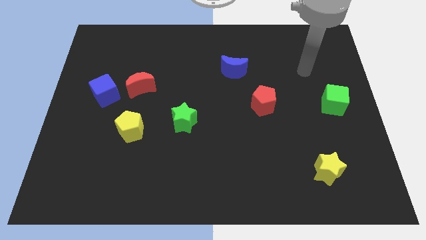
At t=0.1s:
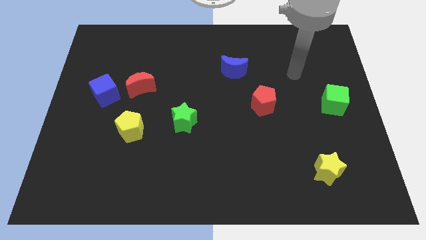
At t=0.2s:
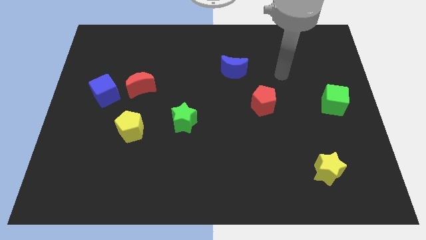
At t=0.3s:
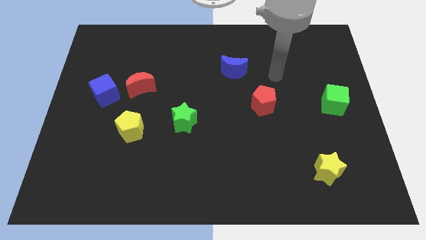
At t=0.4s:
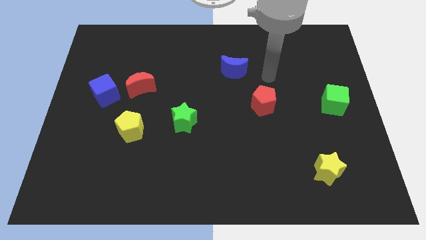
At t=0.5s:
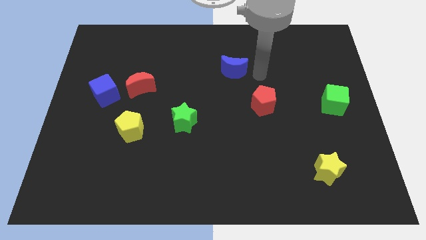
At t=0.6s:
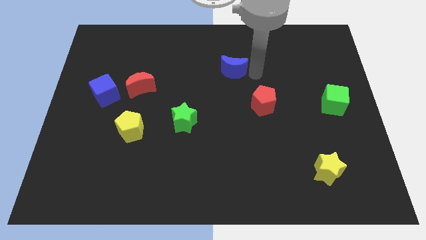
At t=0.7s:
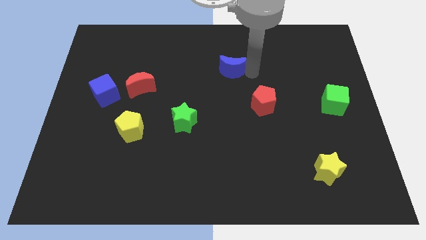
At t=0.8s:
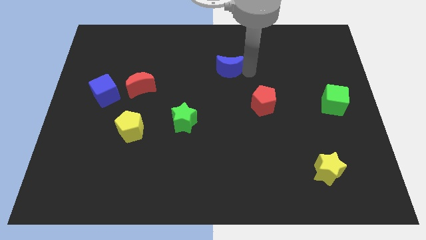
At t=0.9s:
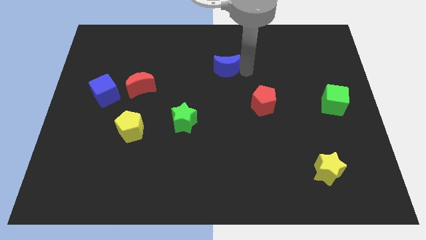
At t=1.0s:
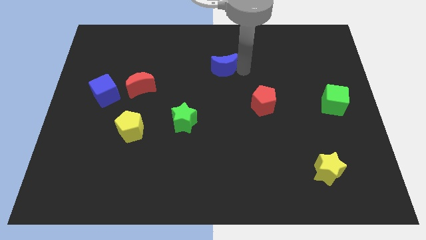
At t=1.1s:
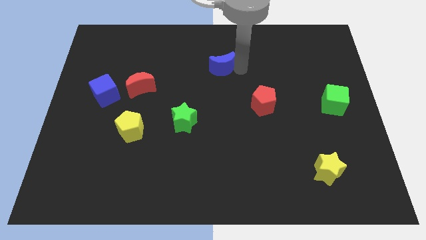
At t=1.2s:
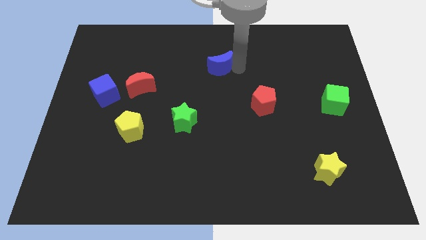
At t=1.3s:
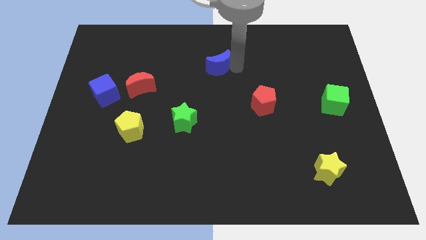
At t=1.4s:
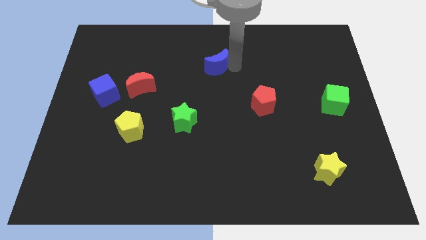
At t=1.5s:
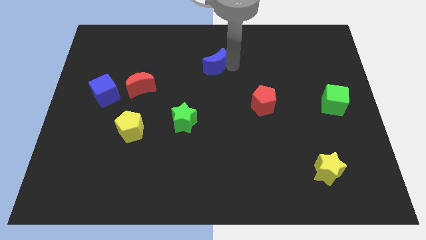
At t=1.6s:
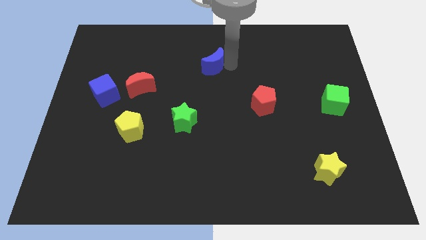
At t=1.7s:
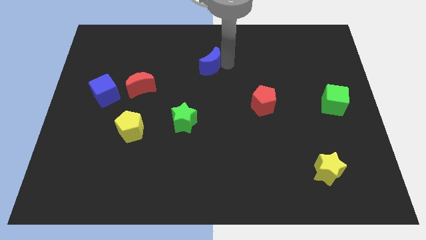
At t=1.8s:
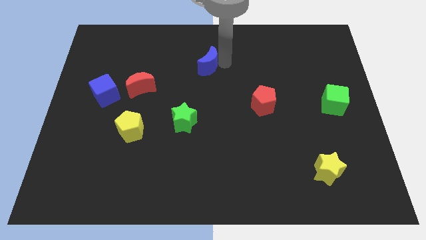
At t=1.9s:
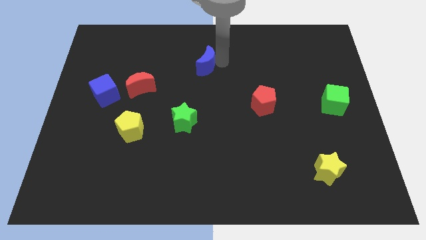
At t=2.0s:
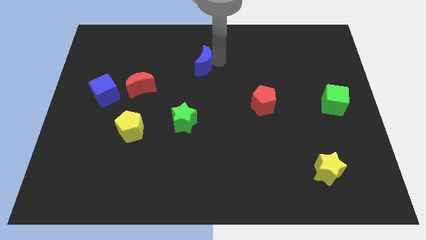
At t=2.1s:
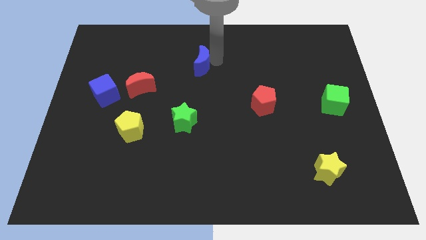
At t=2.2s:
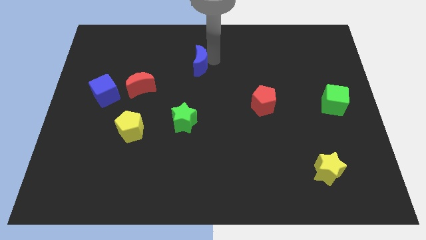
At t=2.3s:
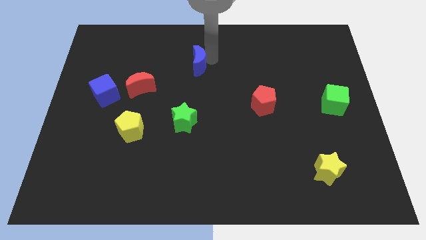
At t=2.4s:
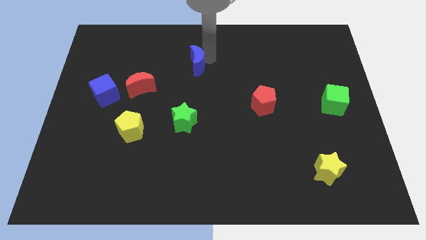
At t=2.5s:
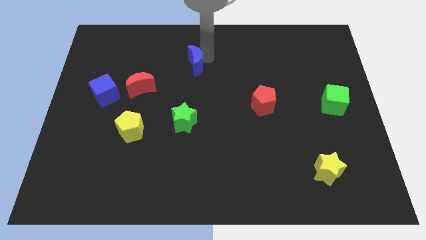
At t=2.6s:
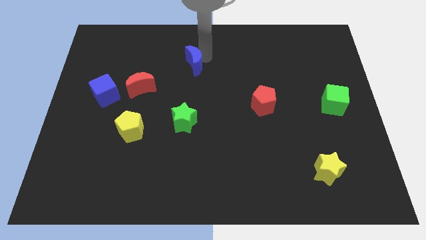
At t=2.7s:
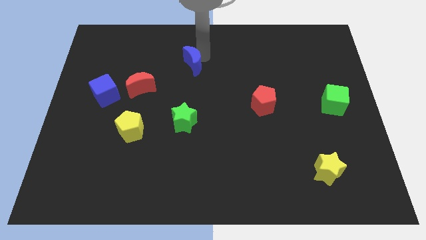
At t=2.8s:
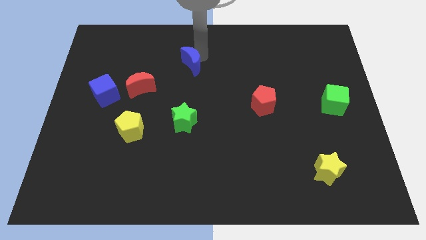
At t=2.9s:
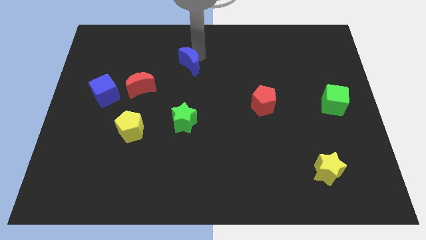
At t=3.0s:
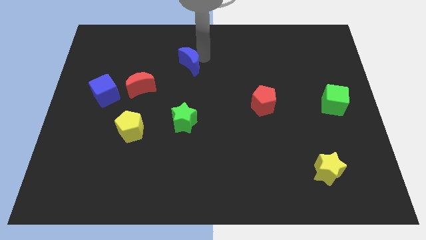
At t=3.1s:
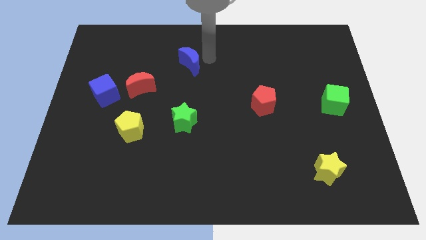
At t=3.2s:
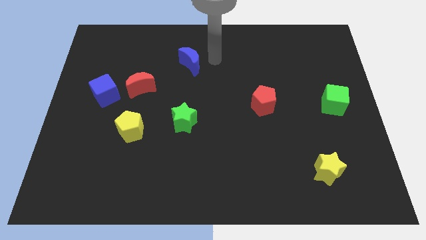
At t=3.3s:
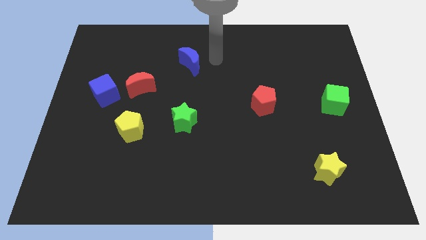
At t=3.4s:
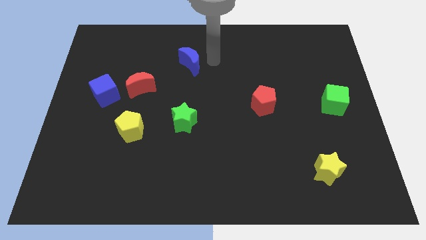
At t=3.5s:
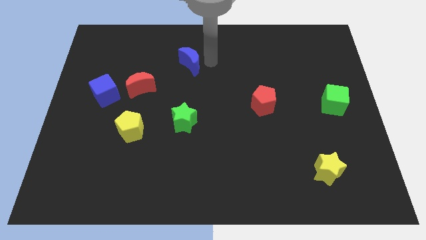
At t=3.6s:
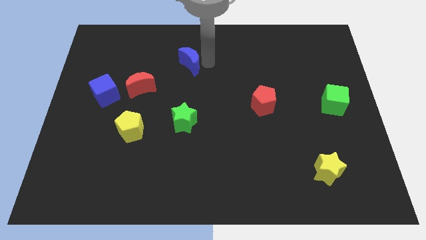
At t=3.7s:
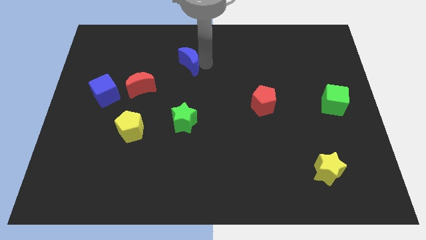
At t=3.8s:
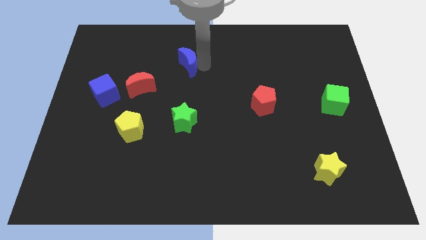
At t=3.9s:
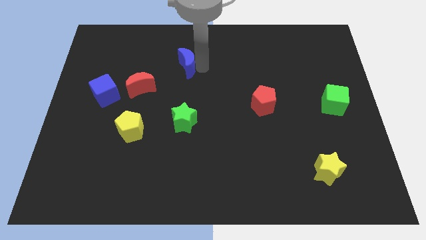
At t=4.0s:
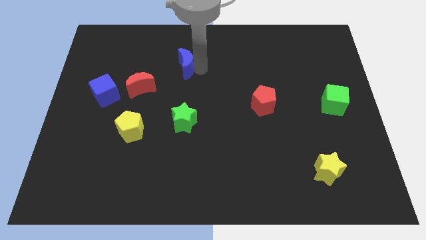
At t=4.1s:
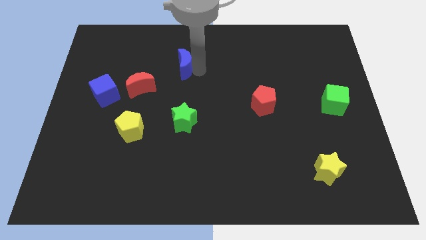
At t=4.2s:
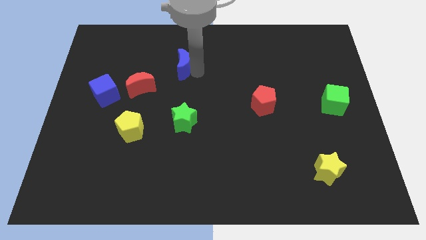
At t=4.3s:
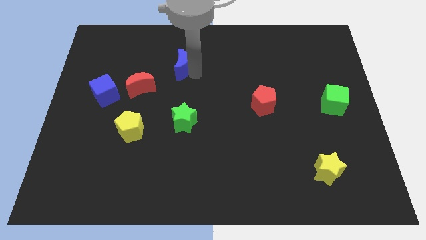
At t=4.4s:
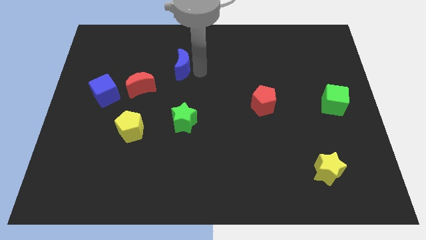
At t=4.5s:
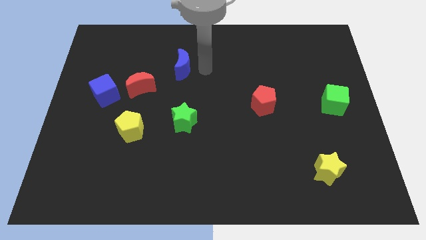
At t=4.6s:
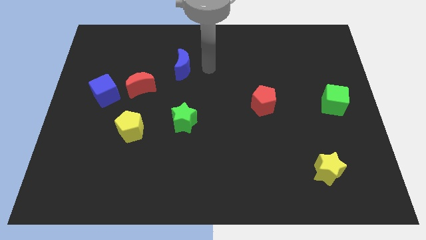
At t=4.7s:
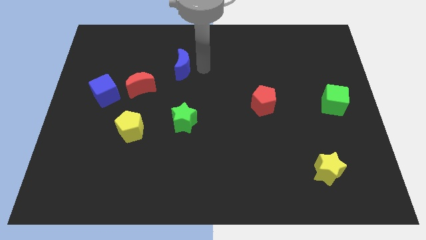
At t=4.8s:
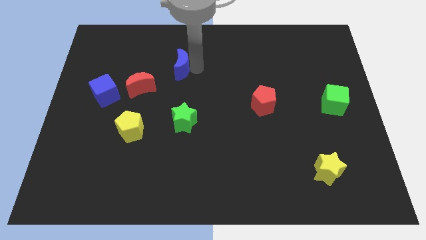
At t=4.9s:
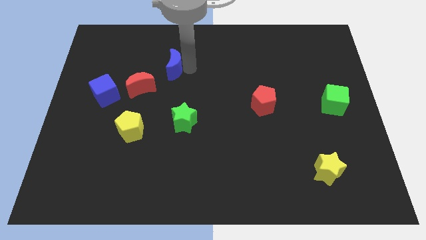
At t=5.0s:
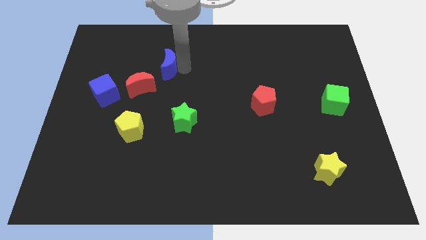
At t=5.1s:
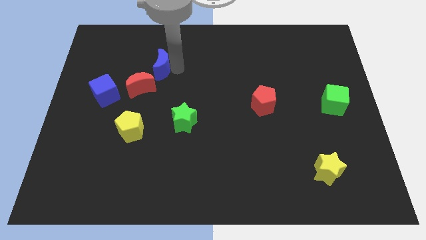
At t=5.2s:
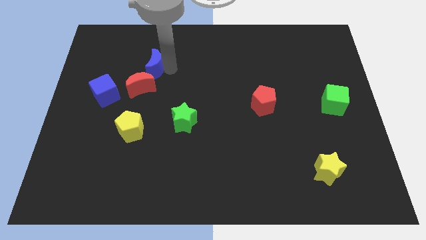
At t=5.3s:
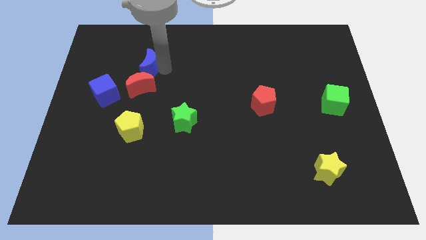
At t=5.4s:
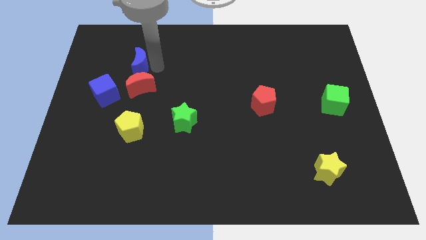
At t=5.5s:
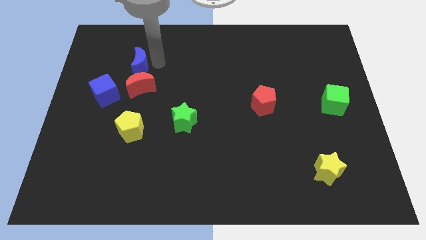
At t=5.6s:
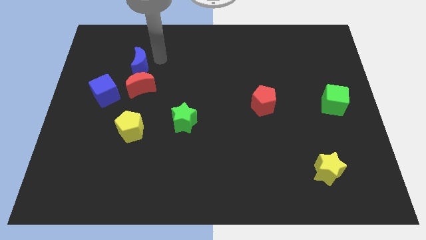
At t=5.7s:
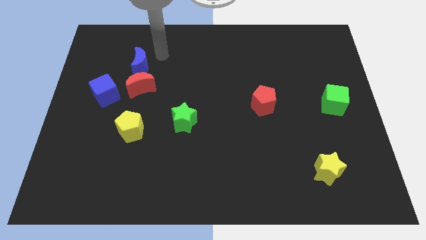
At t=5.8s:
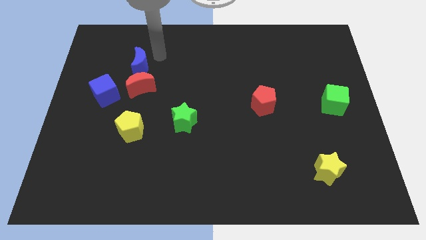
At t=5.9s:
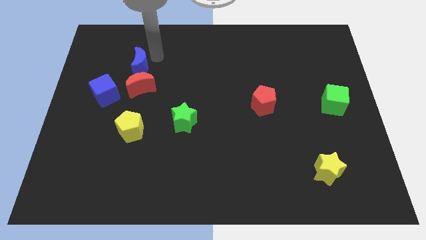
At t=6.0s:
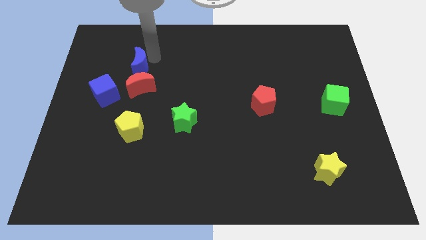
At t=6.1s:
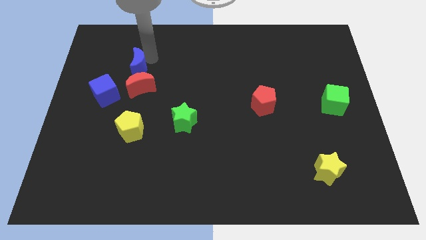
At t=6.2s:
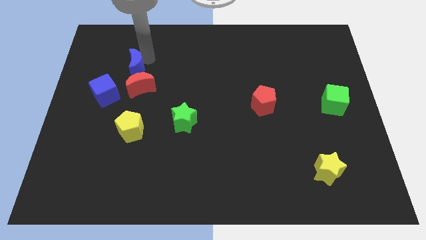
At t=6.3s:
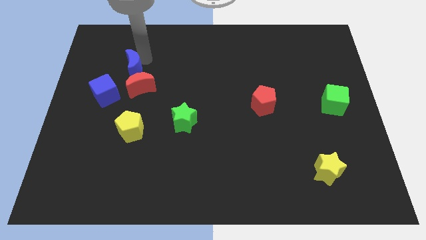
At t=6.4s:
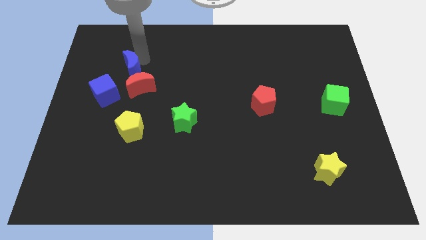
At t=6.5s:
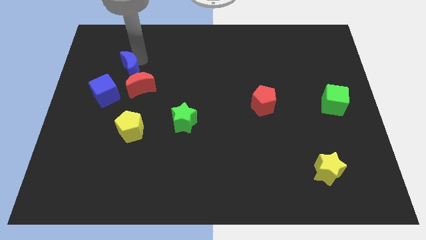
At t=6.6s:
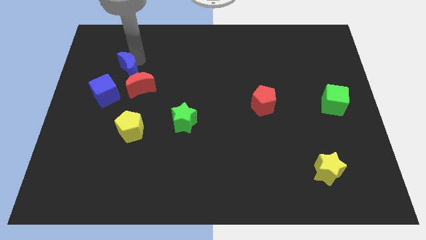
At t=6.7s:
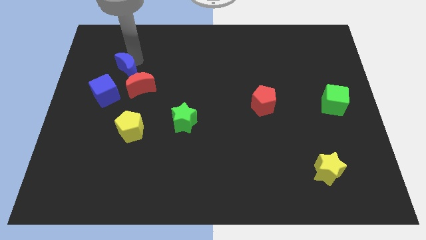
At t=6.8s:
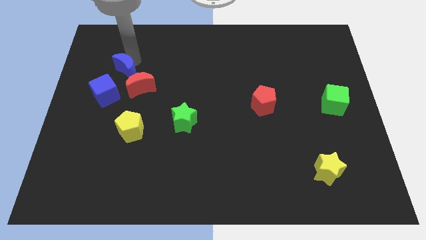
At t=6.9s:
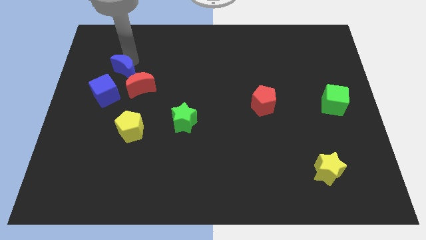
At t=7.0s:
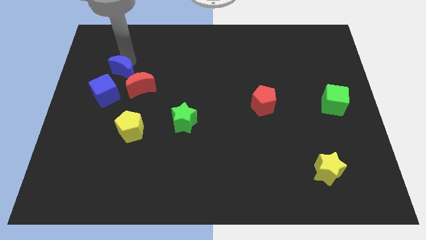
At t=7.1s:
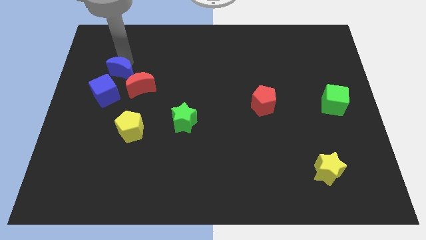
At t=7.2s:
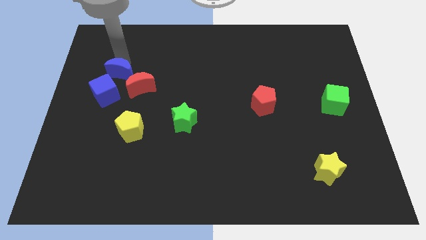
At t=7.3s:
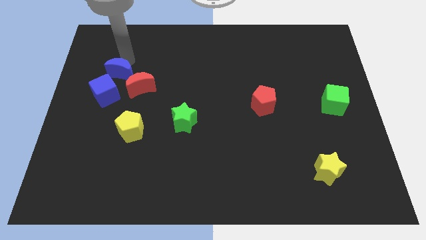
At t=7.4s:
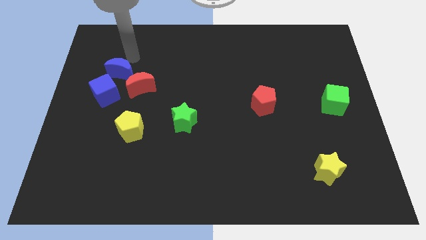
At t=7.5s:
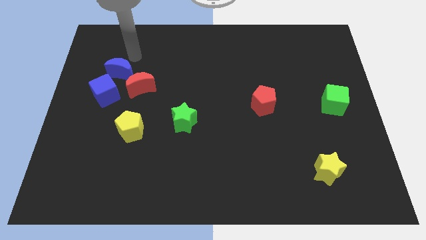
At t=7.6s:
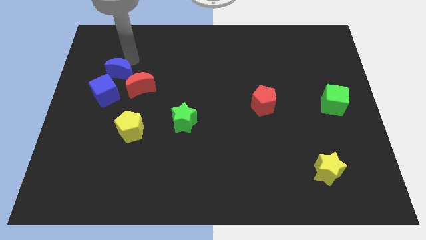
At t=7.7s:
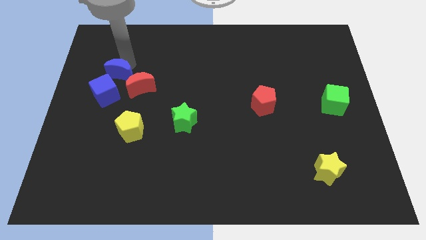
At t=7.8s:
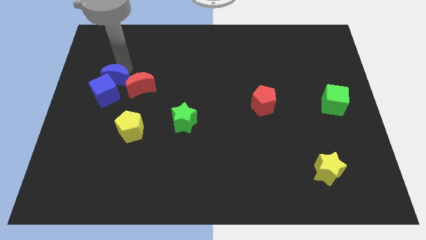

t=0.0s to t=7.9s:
push the blue moon next to the blue cube
